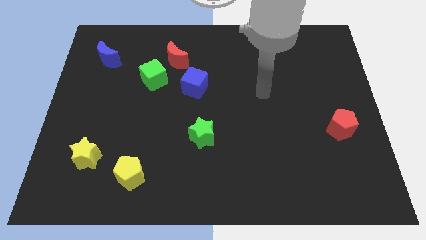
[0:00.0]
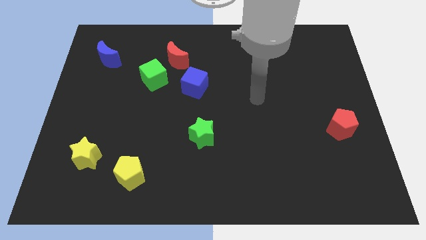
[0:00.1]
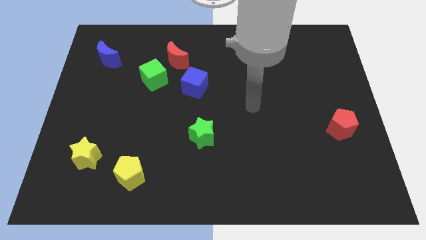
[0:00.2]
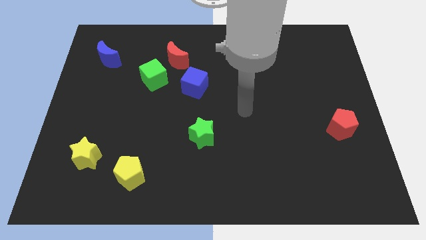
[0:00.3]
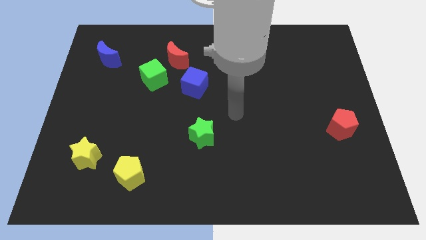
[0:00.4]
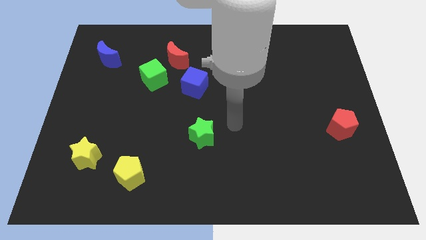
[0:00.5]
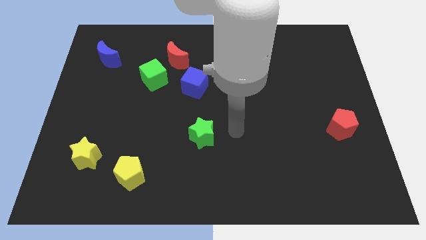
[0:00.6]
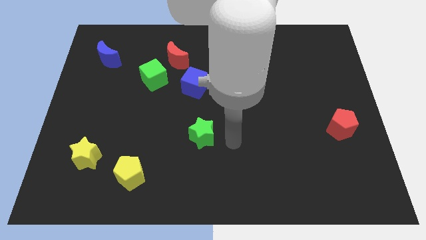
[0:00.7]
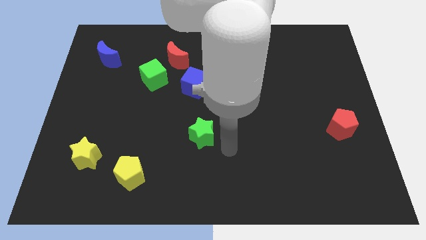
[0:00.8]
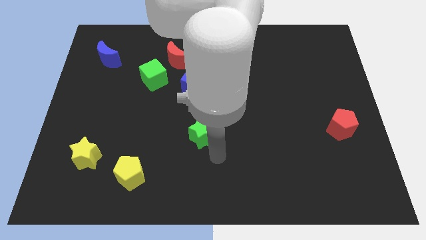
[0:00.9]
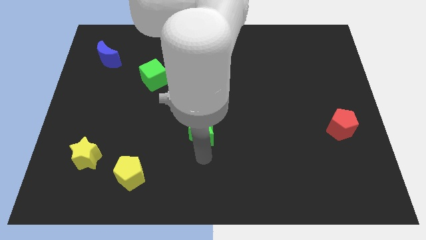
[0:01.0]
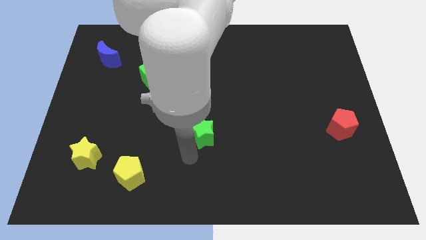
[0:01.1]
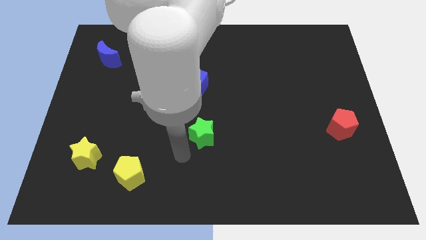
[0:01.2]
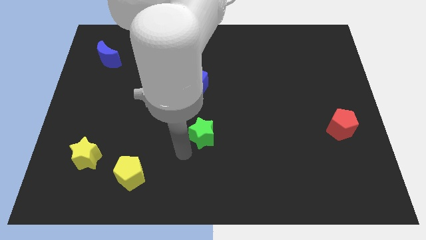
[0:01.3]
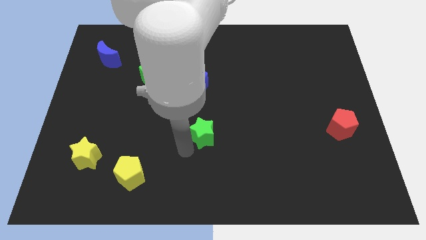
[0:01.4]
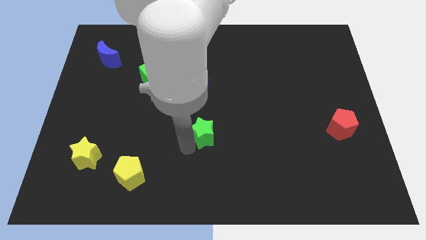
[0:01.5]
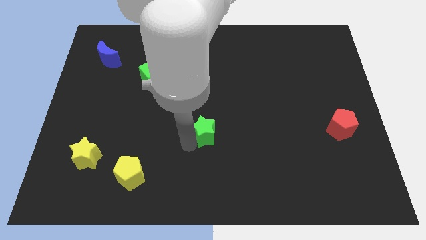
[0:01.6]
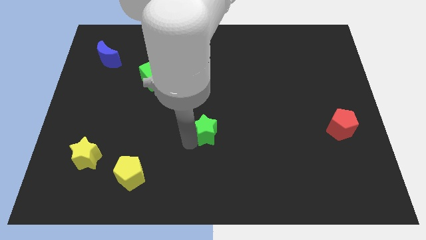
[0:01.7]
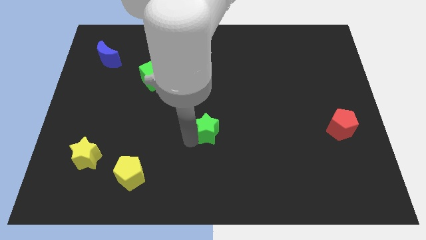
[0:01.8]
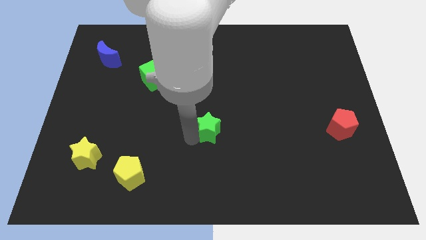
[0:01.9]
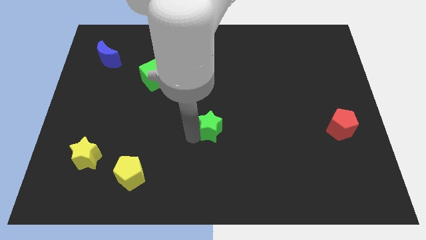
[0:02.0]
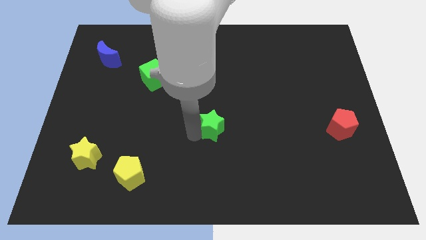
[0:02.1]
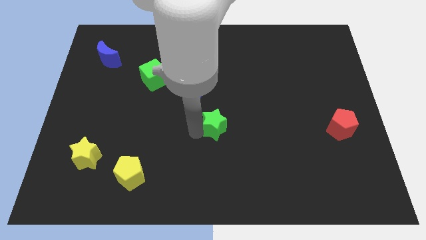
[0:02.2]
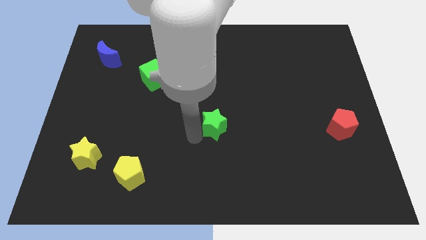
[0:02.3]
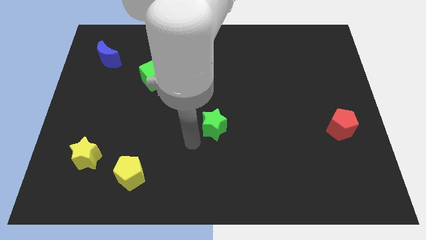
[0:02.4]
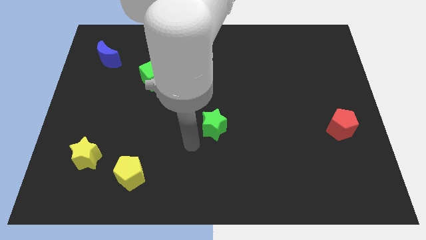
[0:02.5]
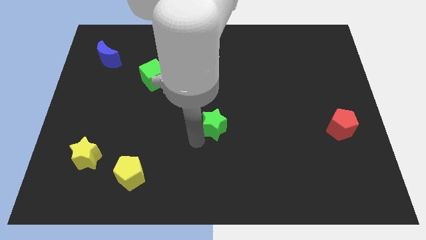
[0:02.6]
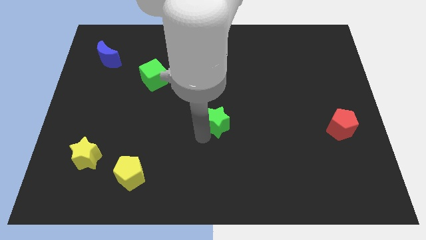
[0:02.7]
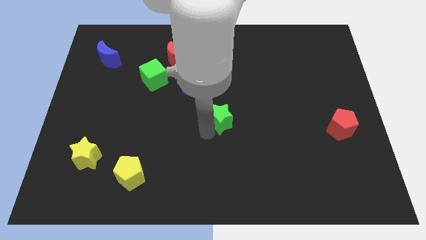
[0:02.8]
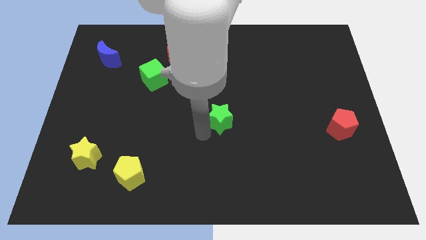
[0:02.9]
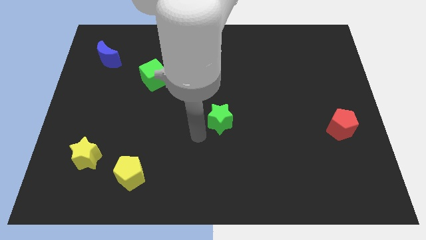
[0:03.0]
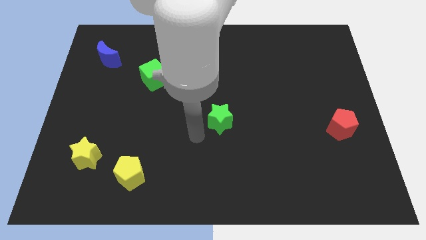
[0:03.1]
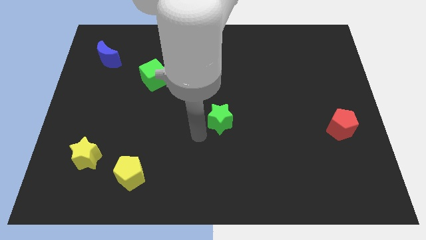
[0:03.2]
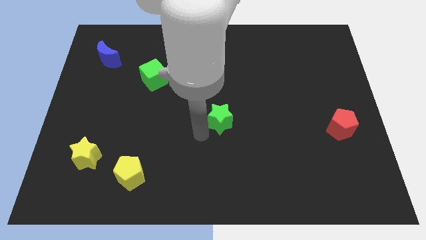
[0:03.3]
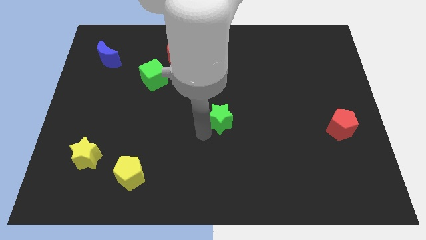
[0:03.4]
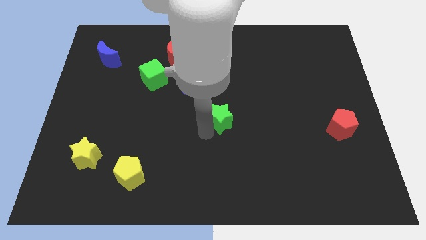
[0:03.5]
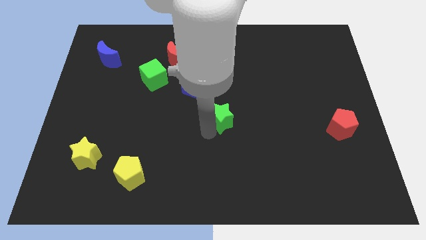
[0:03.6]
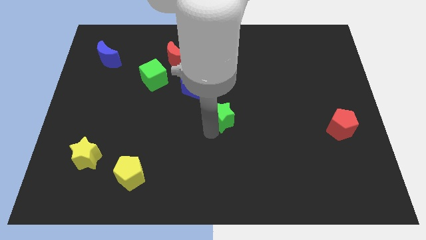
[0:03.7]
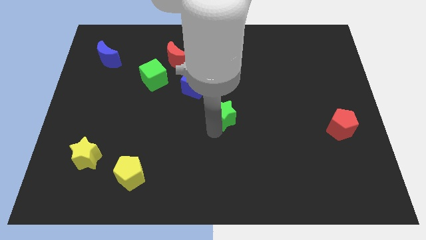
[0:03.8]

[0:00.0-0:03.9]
slightly push the green star up and right diagonally

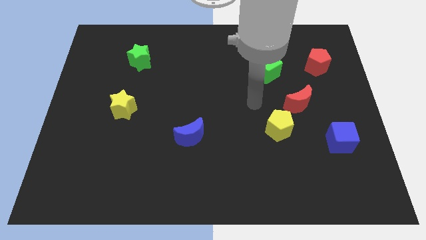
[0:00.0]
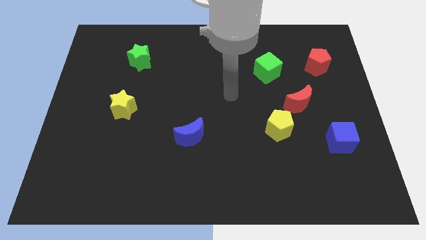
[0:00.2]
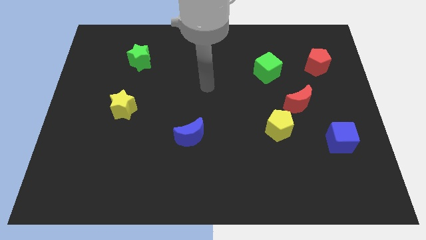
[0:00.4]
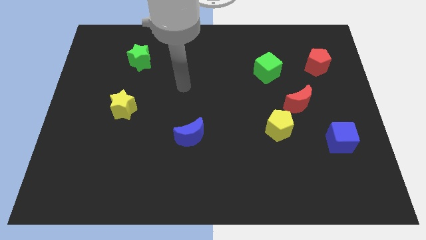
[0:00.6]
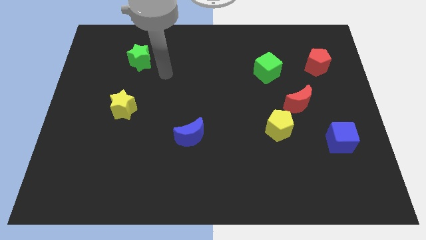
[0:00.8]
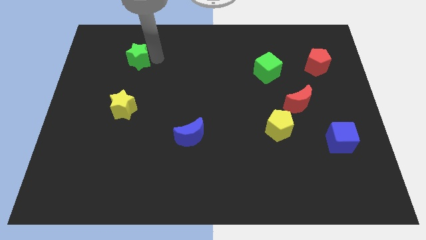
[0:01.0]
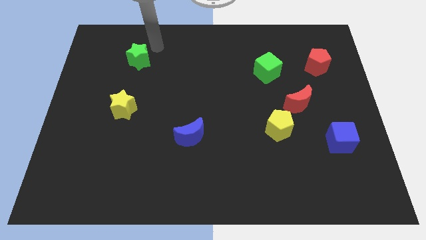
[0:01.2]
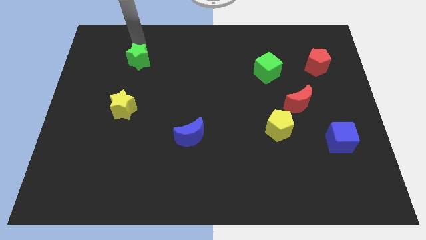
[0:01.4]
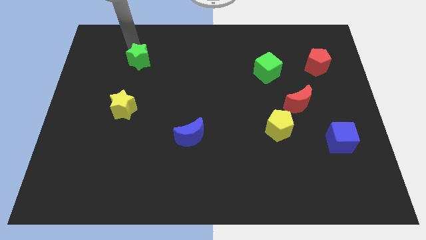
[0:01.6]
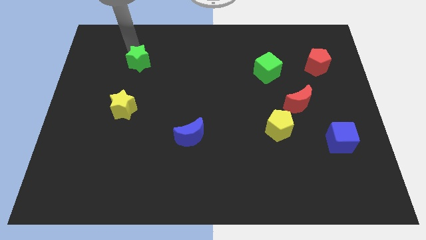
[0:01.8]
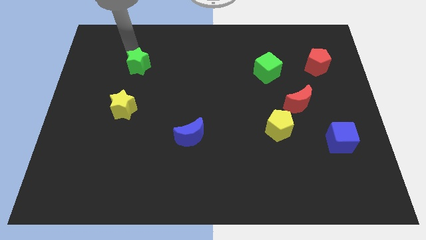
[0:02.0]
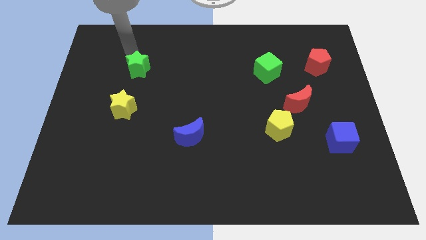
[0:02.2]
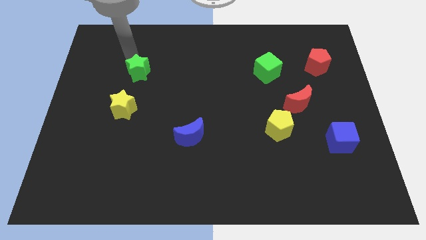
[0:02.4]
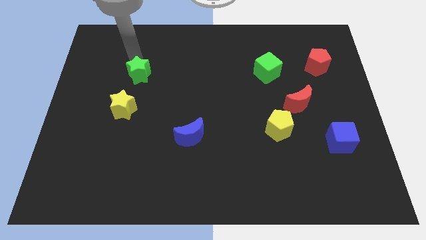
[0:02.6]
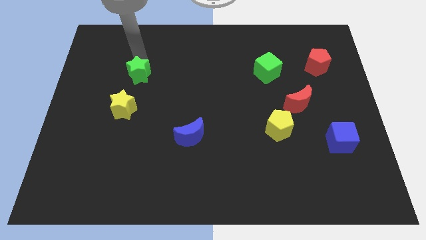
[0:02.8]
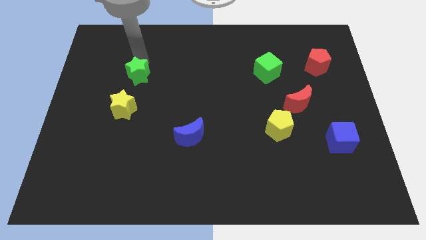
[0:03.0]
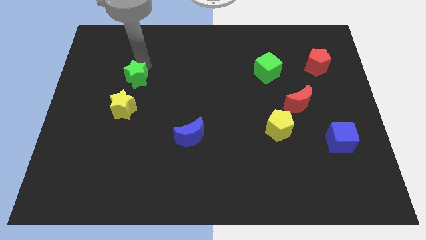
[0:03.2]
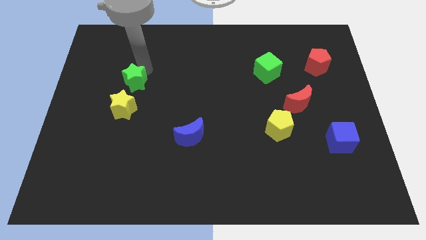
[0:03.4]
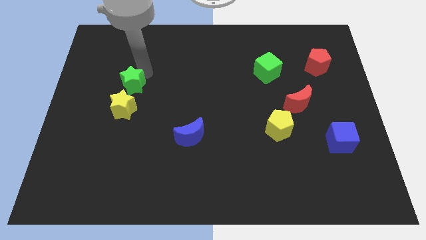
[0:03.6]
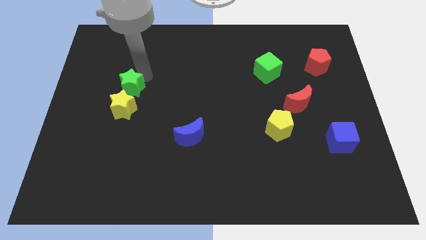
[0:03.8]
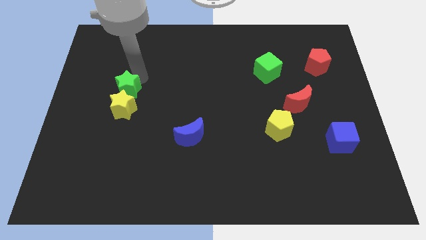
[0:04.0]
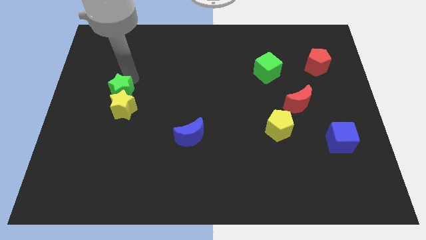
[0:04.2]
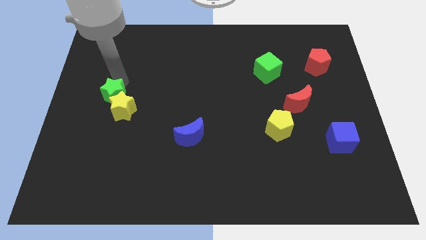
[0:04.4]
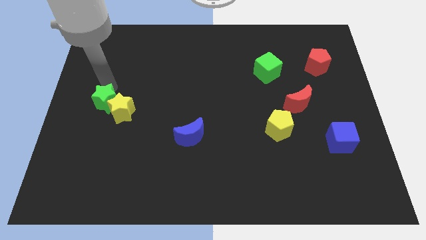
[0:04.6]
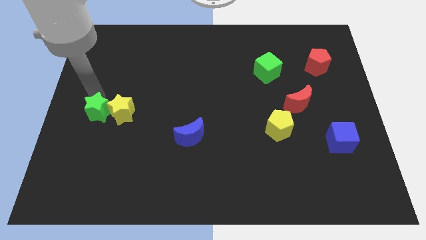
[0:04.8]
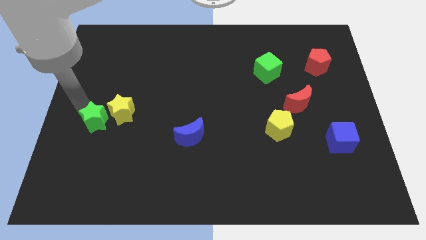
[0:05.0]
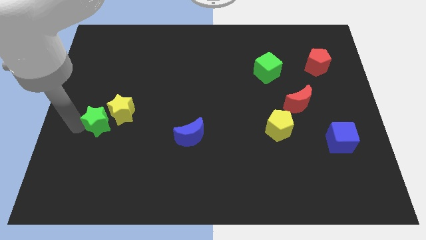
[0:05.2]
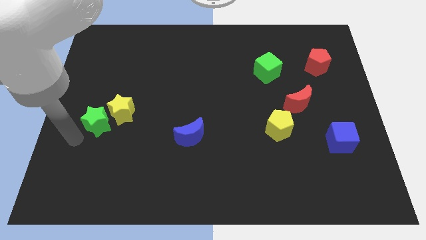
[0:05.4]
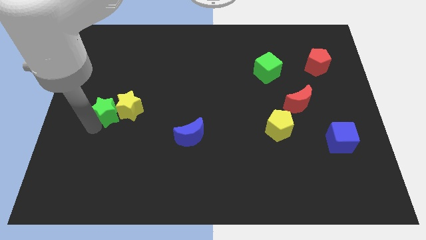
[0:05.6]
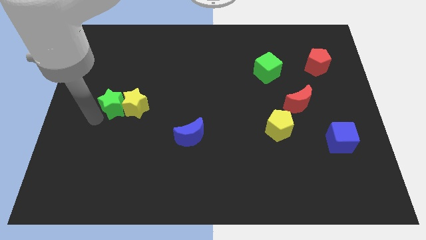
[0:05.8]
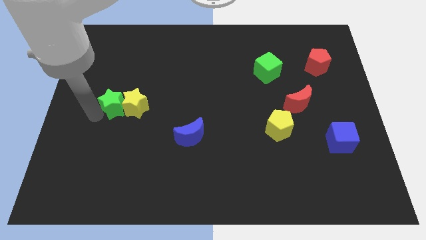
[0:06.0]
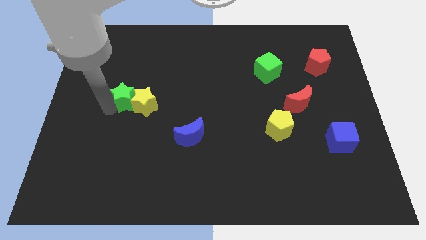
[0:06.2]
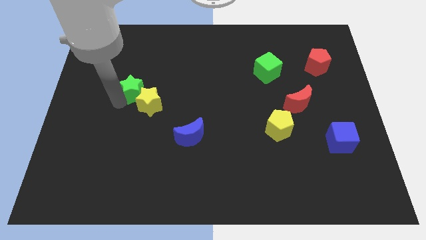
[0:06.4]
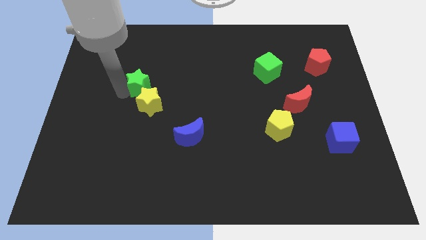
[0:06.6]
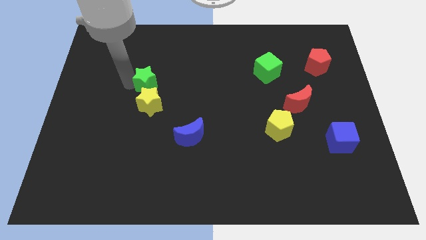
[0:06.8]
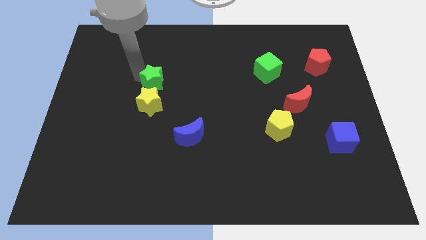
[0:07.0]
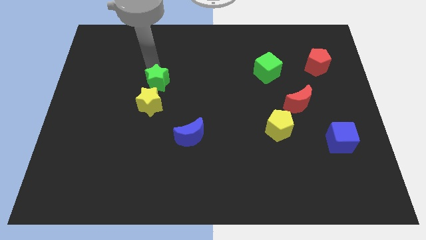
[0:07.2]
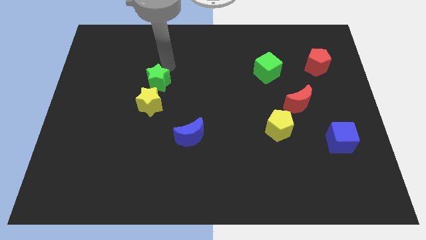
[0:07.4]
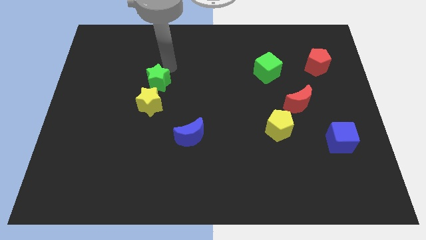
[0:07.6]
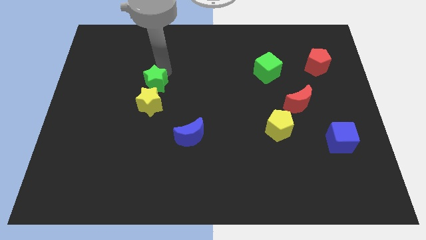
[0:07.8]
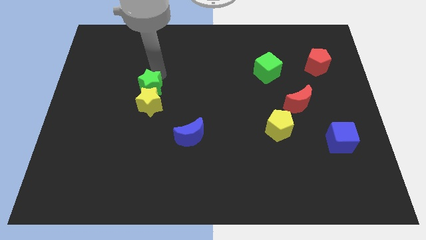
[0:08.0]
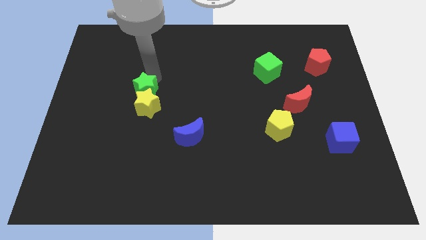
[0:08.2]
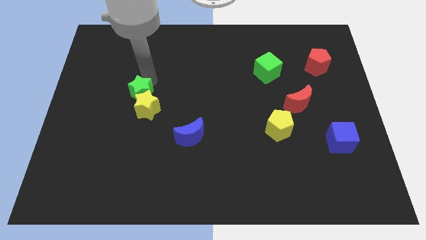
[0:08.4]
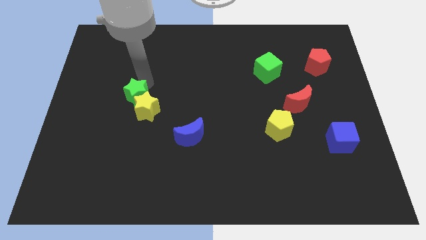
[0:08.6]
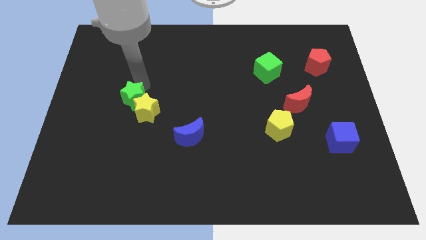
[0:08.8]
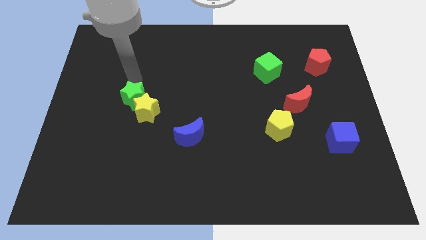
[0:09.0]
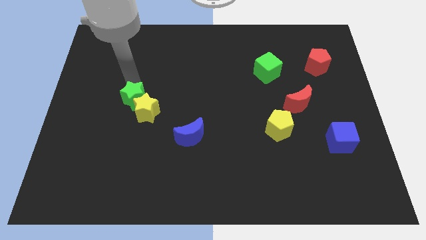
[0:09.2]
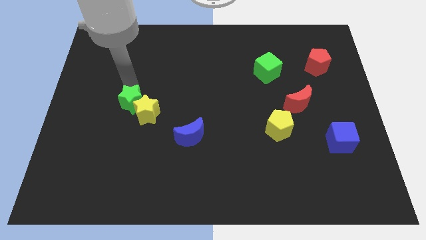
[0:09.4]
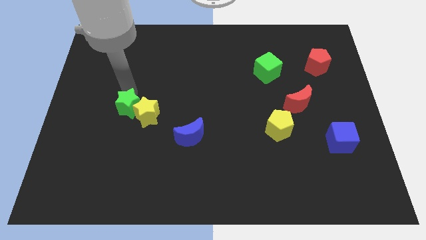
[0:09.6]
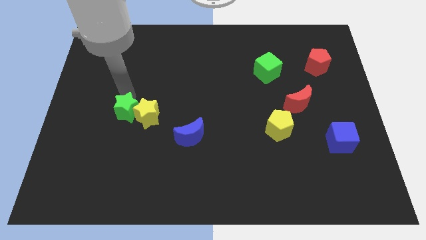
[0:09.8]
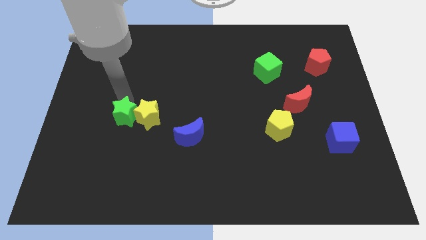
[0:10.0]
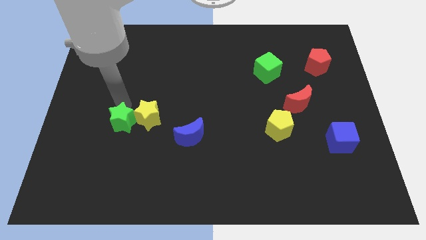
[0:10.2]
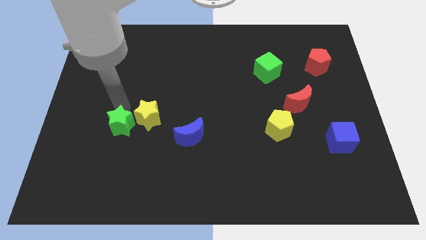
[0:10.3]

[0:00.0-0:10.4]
move the green star downwards
